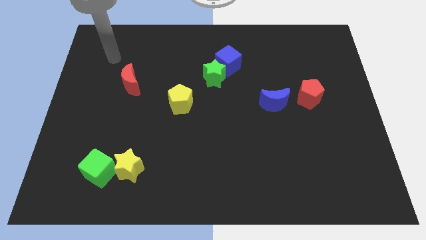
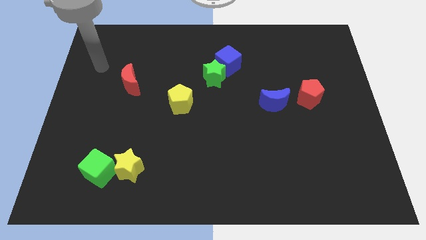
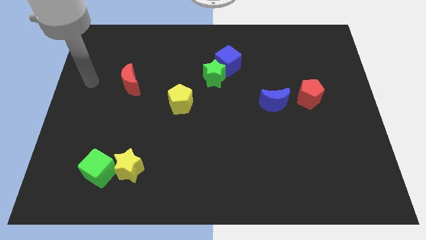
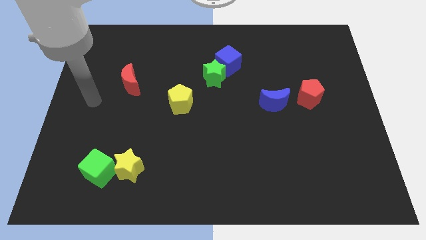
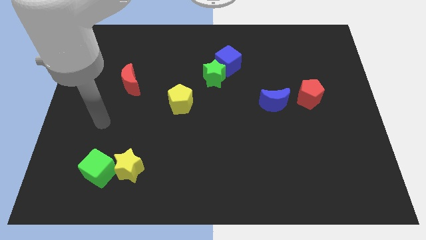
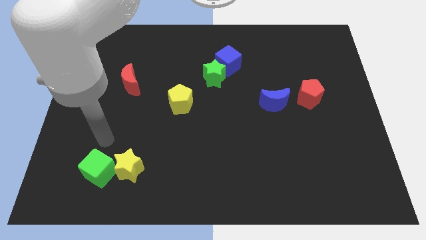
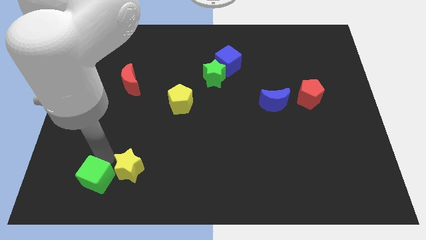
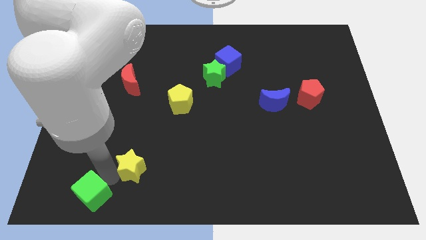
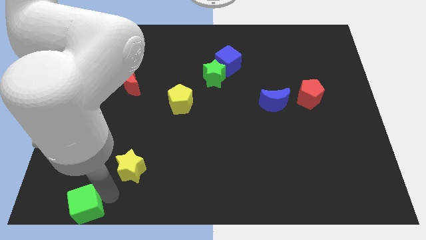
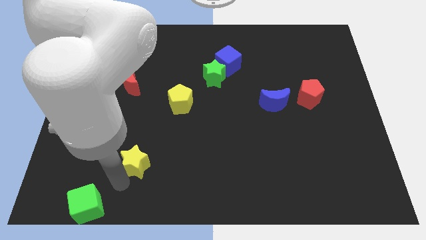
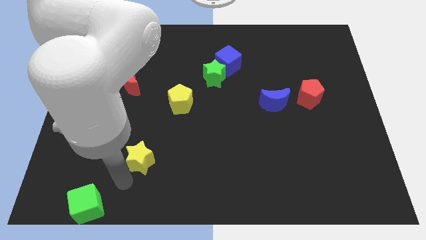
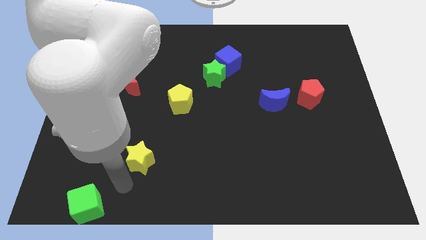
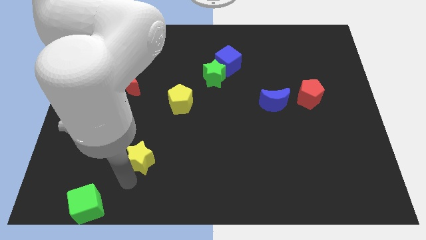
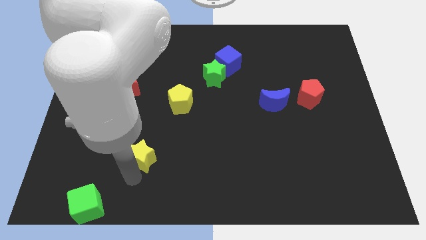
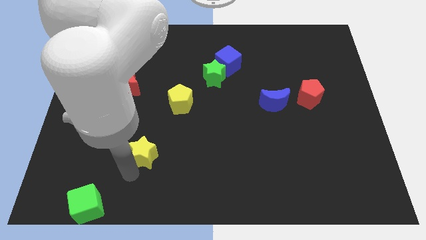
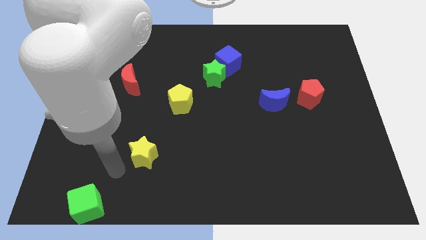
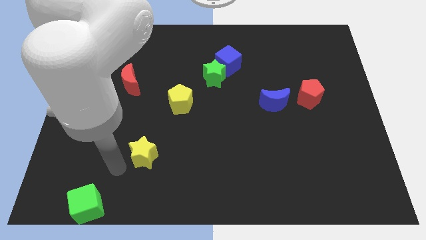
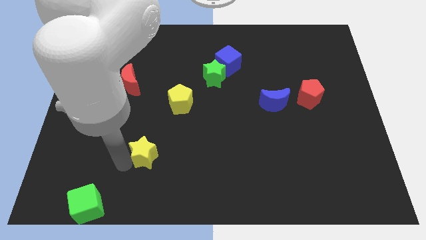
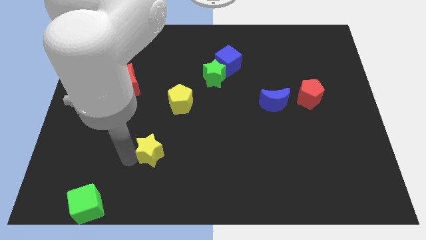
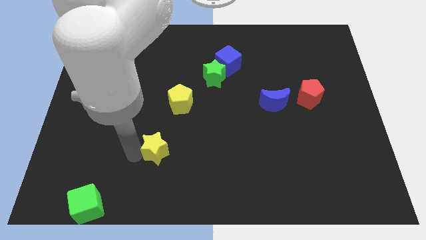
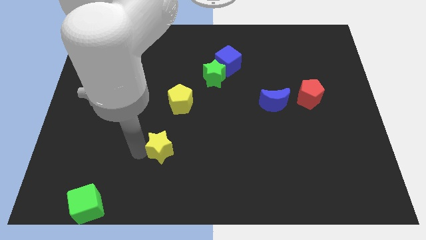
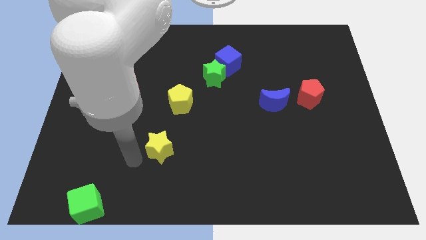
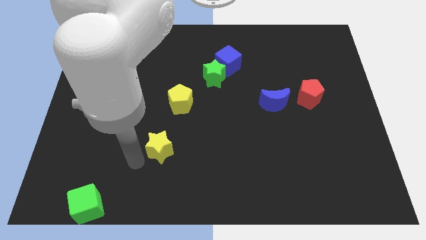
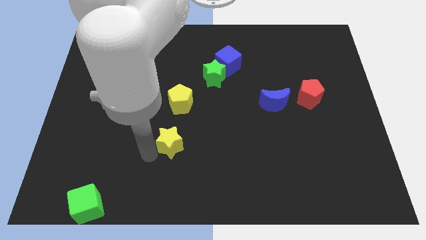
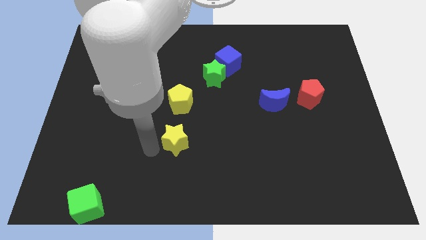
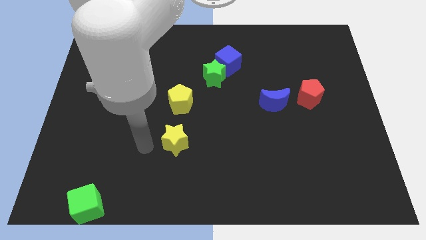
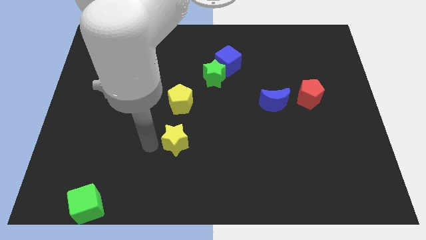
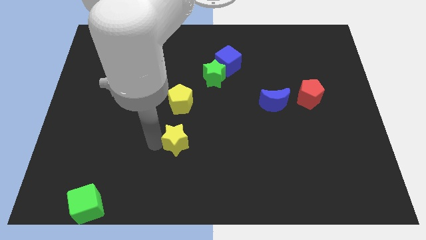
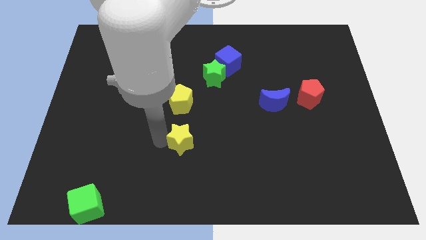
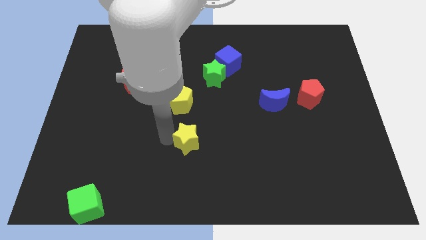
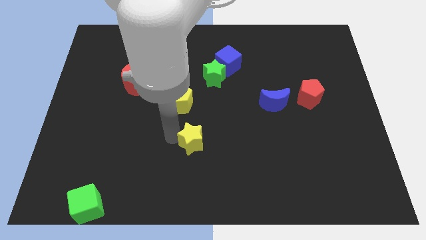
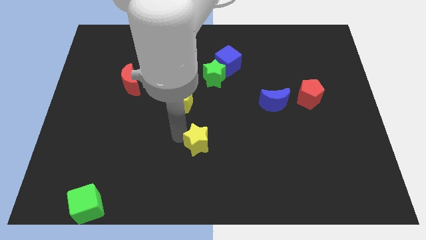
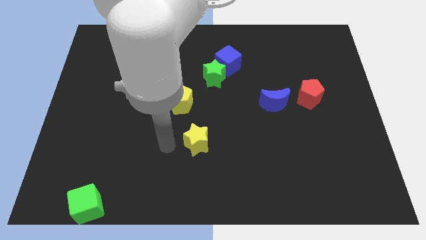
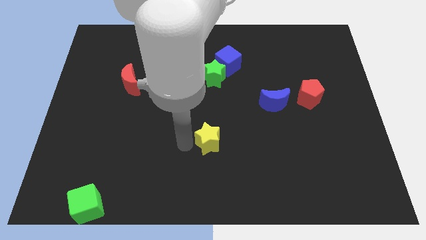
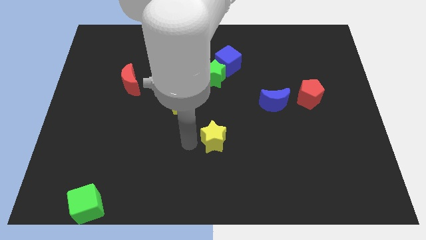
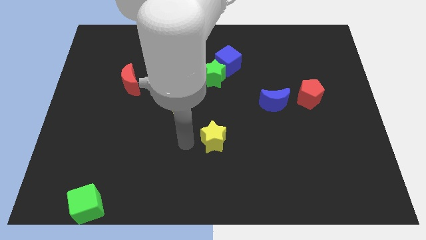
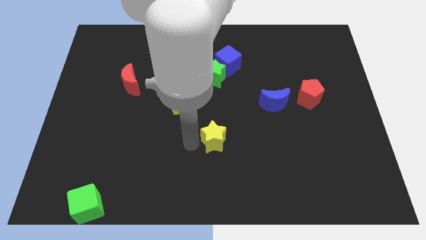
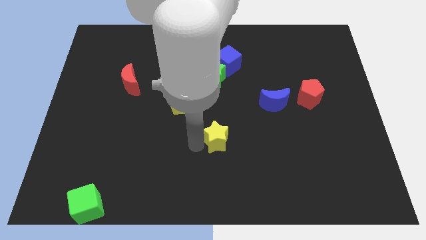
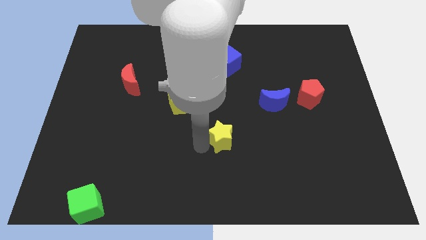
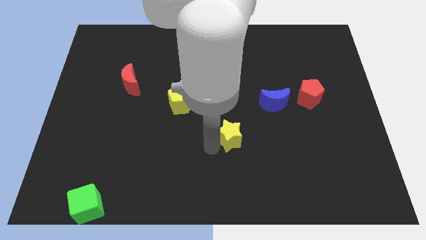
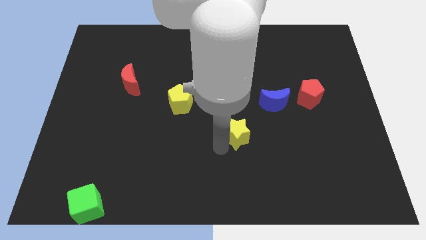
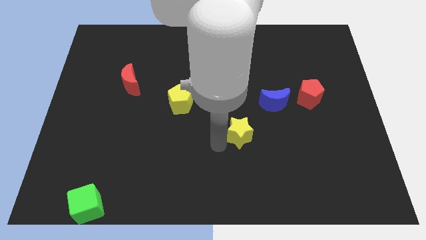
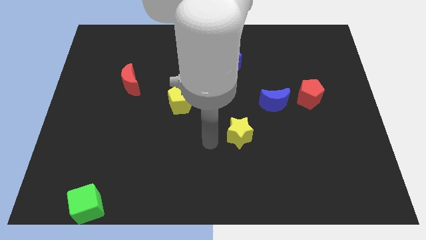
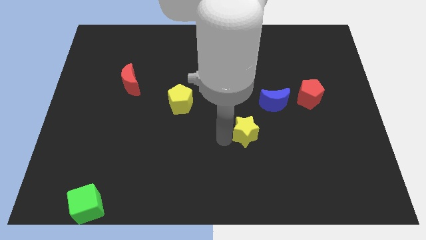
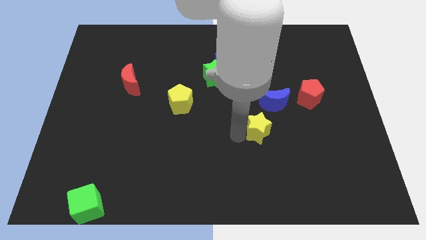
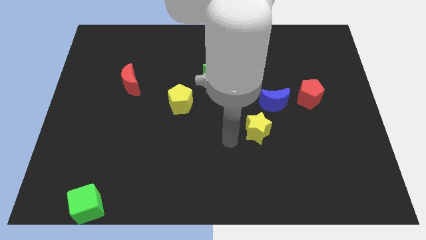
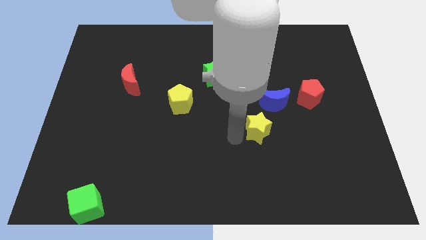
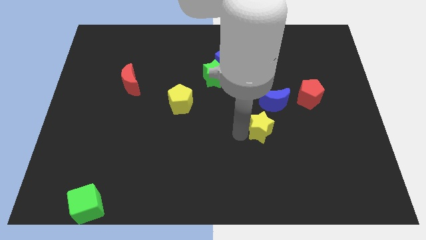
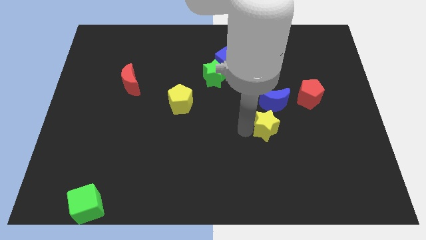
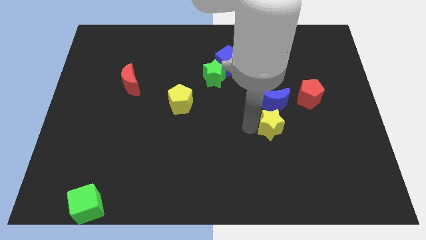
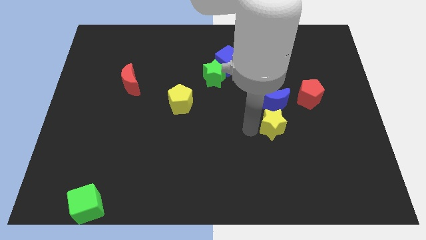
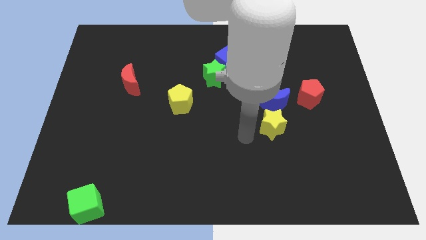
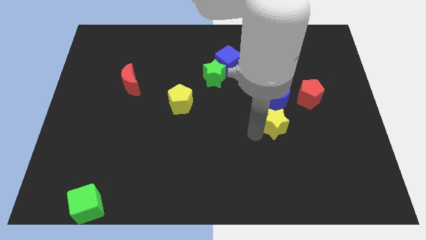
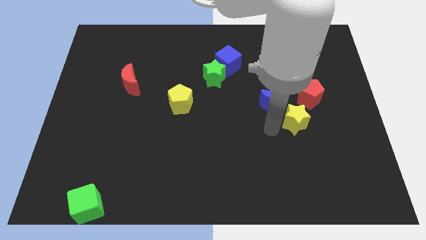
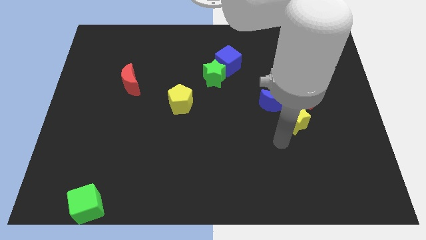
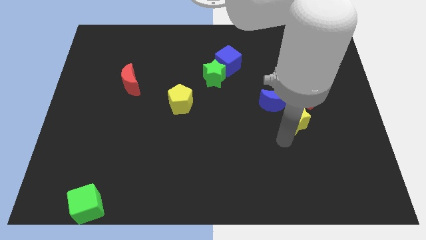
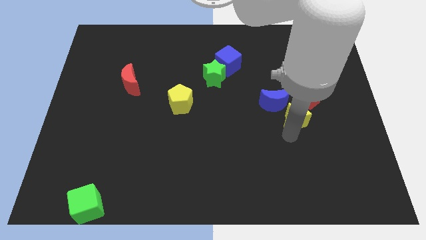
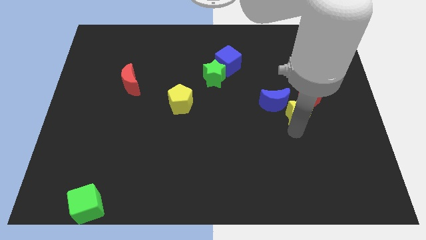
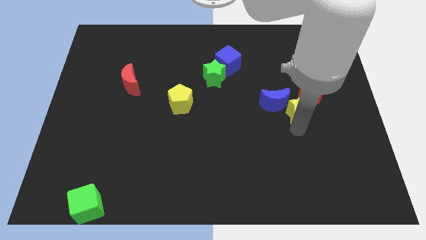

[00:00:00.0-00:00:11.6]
put the yellow star towards the red pentagon

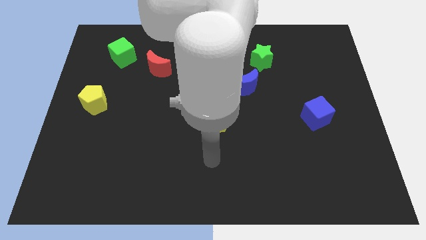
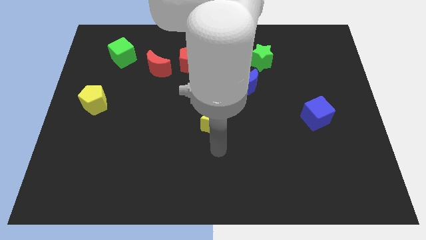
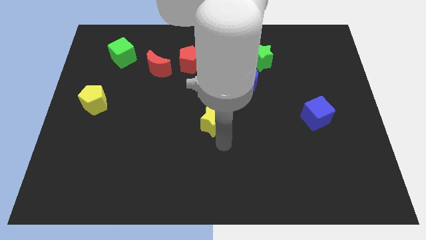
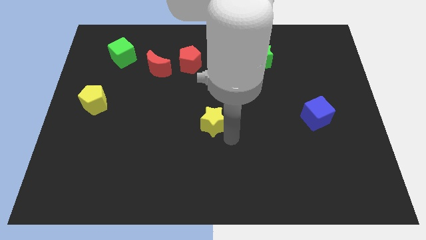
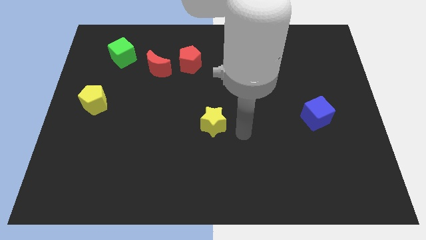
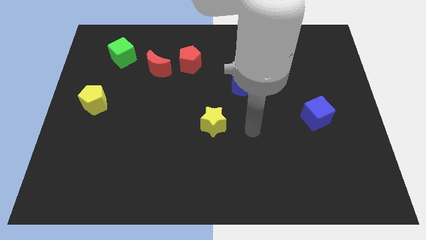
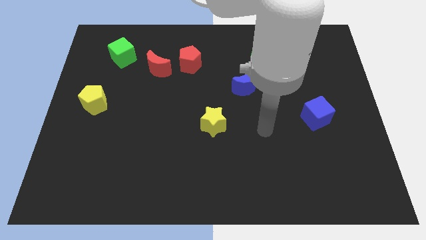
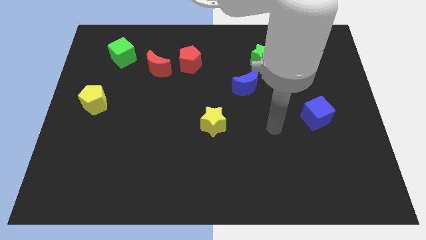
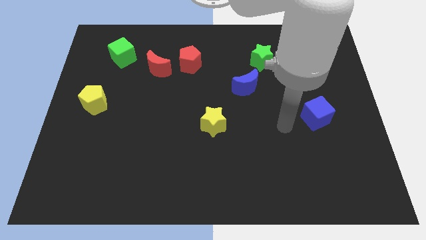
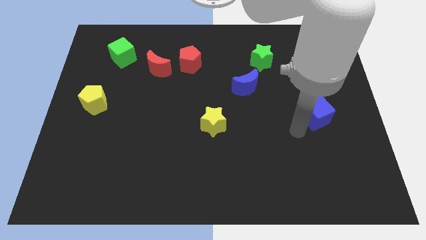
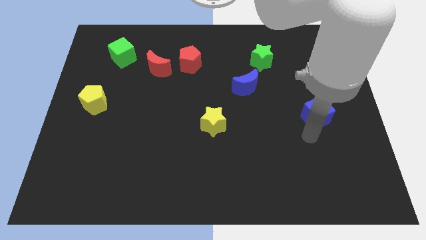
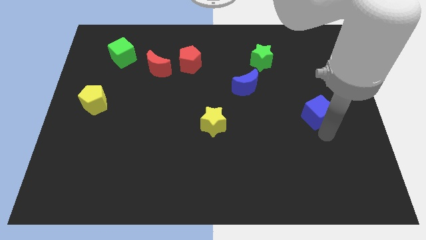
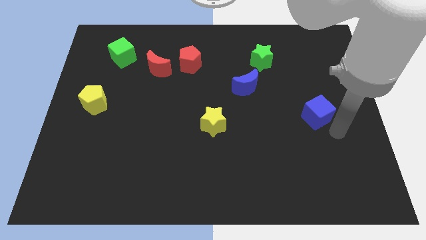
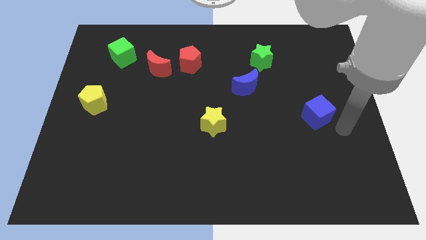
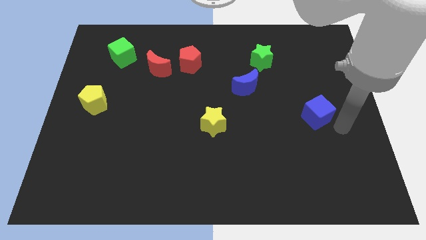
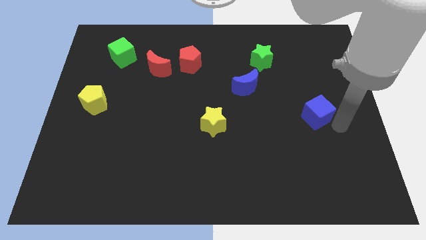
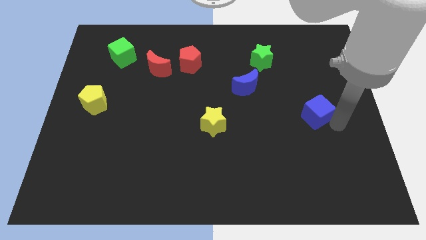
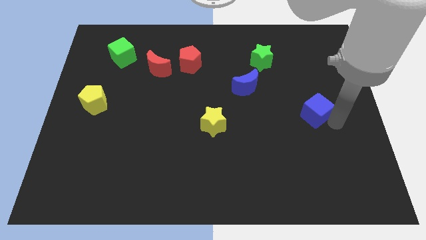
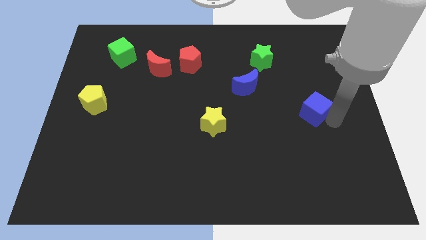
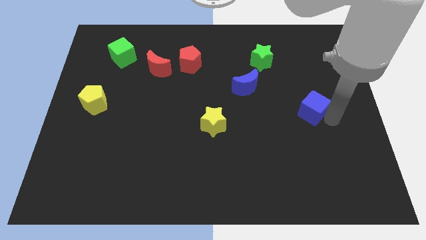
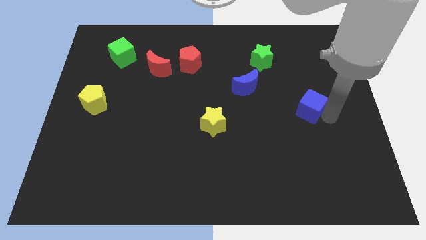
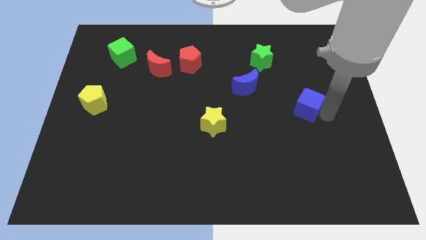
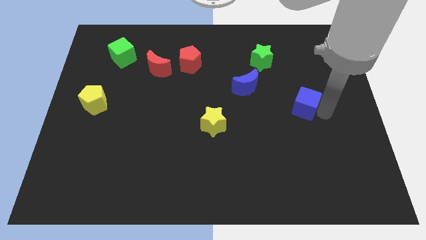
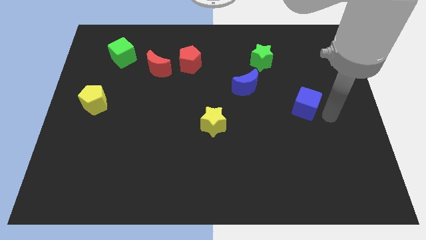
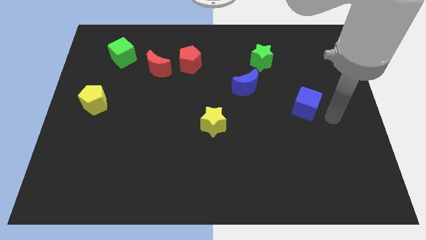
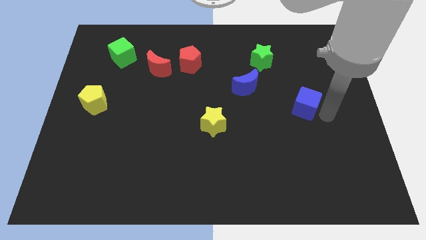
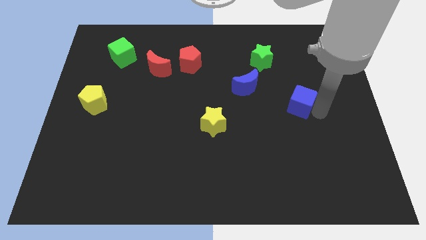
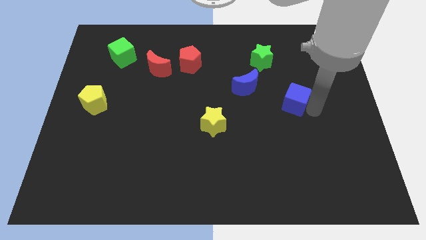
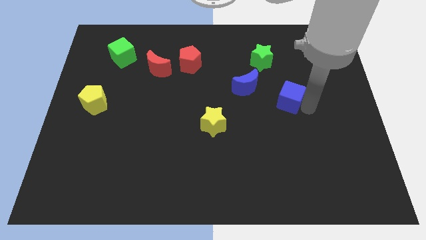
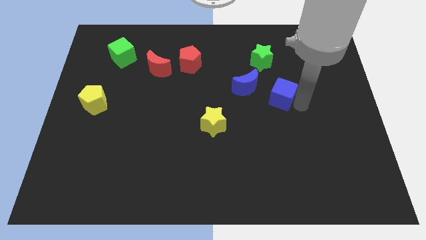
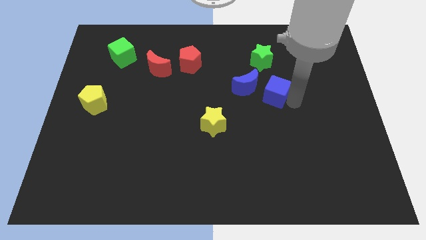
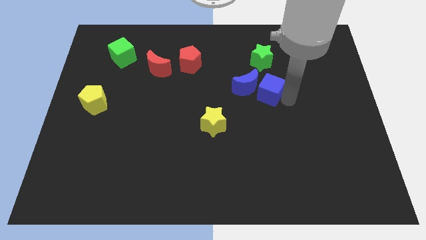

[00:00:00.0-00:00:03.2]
move the blue cube next to the blue moon
